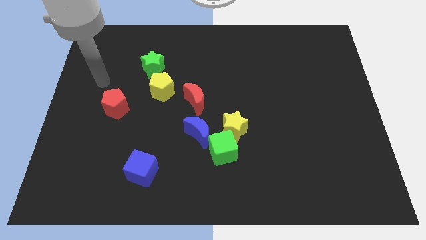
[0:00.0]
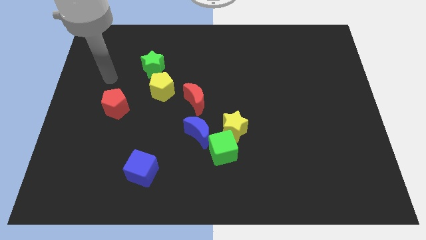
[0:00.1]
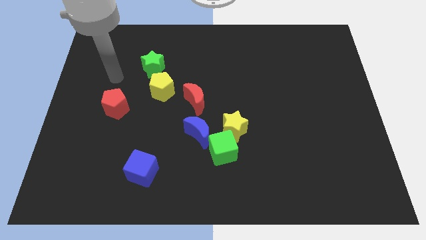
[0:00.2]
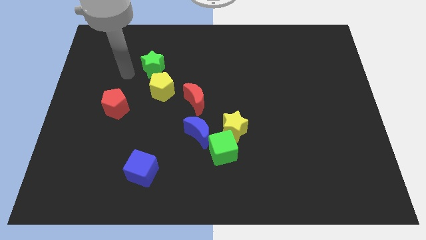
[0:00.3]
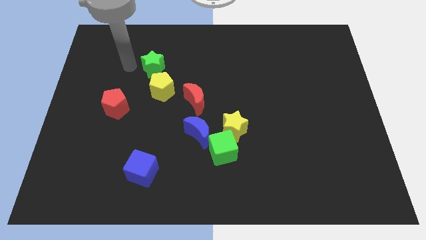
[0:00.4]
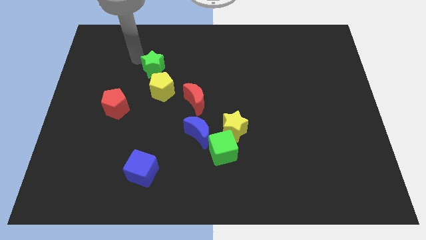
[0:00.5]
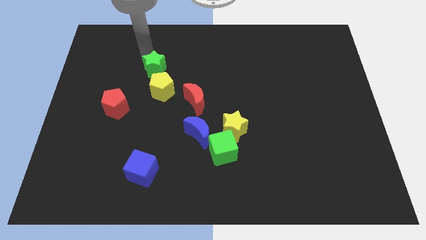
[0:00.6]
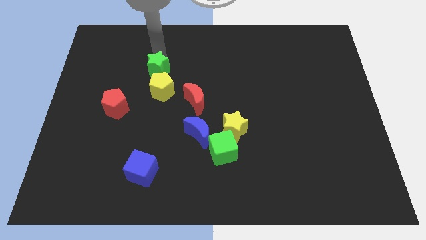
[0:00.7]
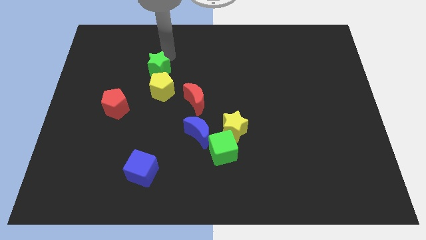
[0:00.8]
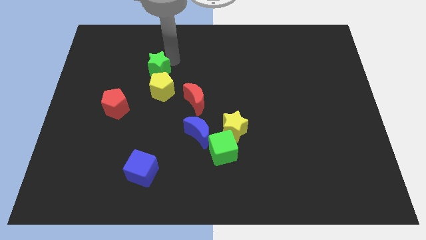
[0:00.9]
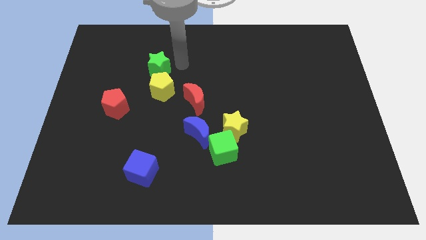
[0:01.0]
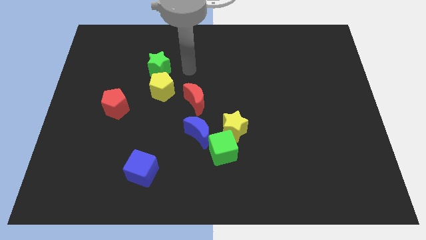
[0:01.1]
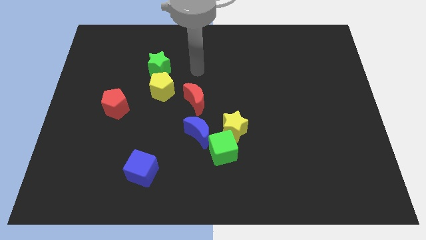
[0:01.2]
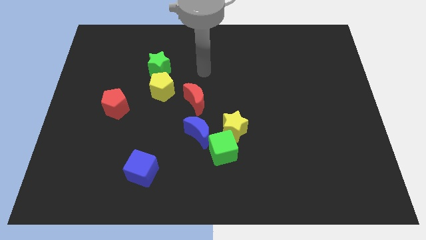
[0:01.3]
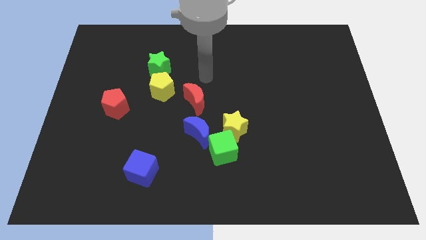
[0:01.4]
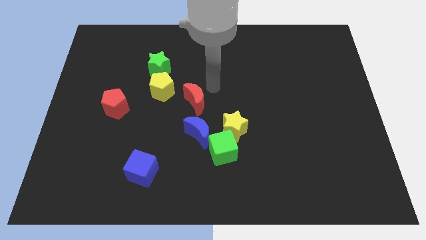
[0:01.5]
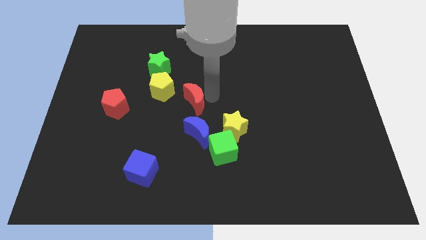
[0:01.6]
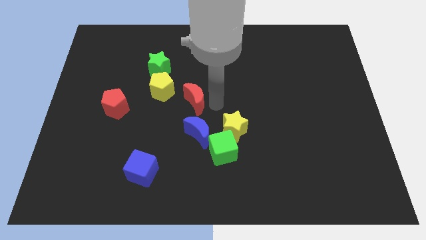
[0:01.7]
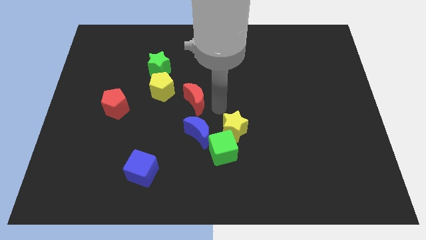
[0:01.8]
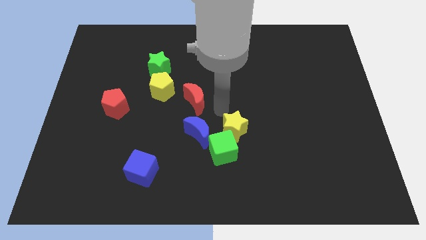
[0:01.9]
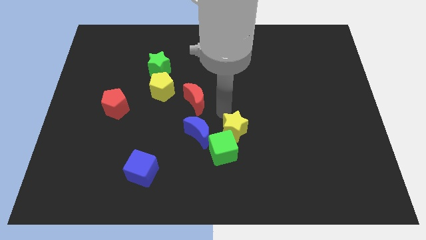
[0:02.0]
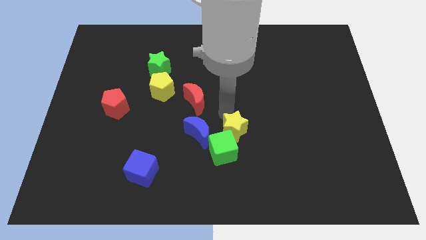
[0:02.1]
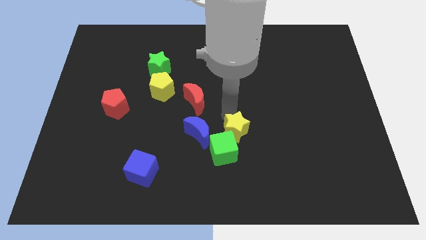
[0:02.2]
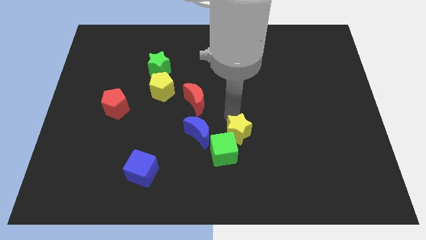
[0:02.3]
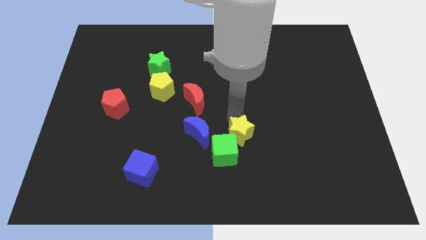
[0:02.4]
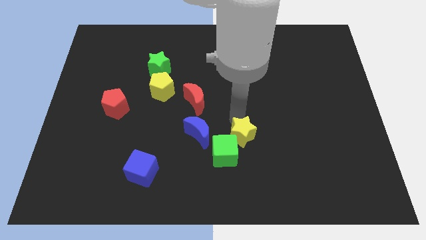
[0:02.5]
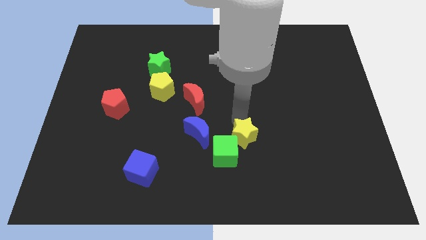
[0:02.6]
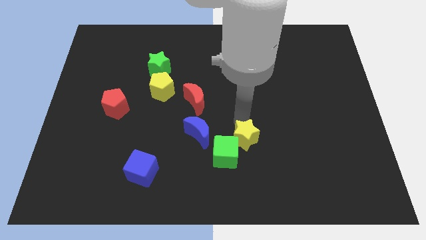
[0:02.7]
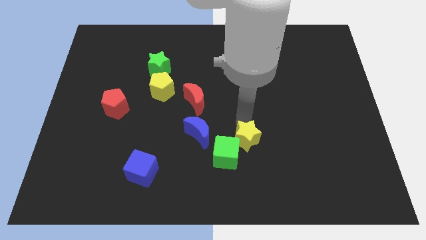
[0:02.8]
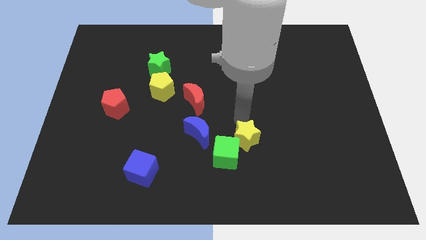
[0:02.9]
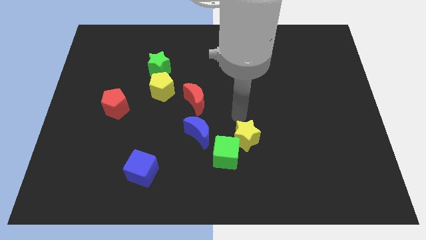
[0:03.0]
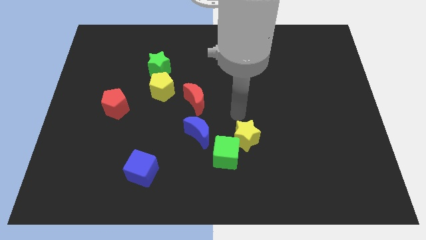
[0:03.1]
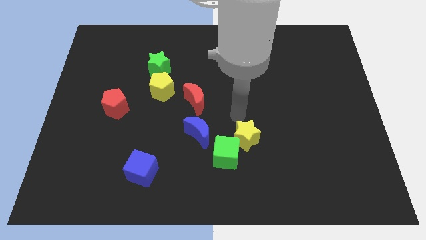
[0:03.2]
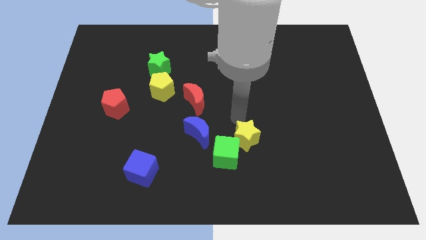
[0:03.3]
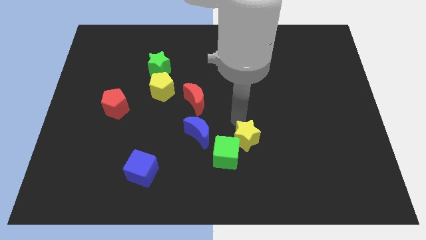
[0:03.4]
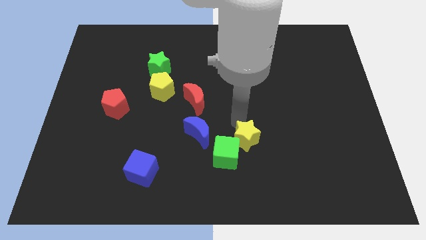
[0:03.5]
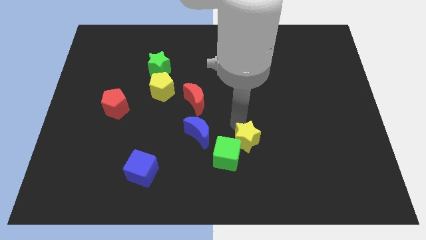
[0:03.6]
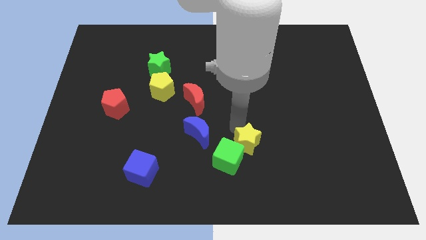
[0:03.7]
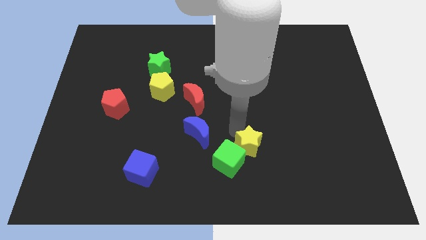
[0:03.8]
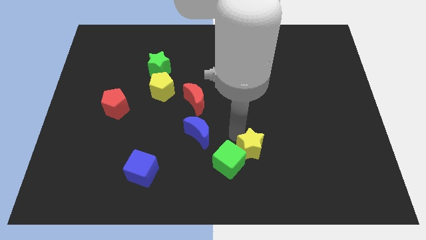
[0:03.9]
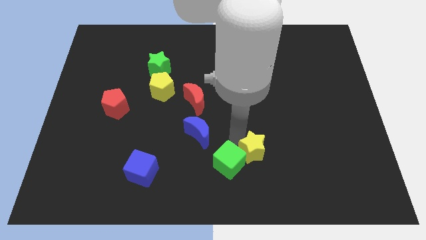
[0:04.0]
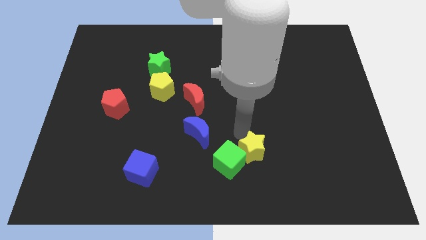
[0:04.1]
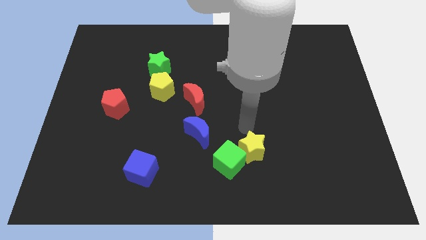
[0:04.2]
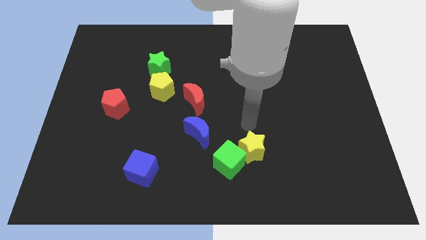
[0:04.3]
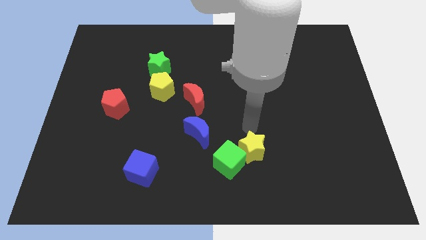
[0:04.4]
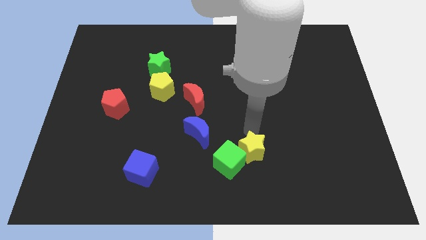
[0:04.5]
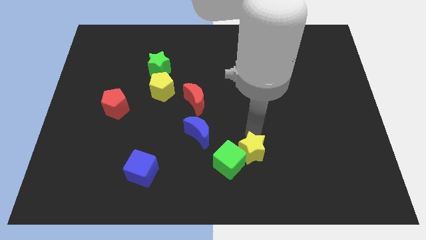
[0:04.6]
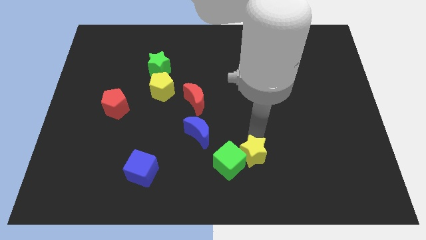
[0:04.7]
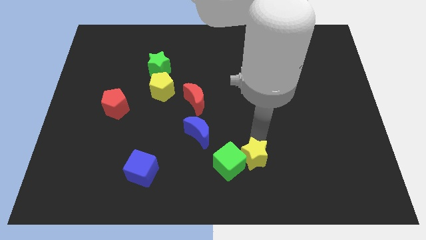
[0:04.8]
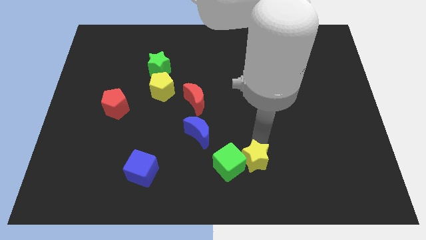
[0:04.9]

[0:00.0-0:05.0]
move the yellow star to the bottom right side of the green cube

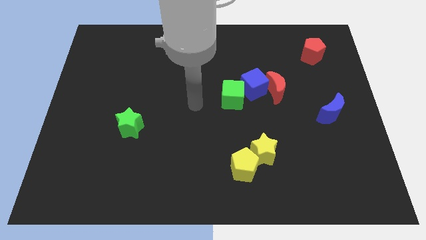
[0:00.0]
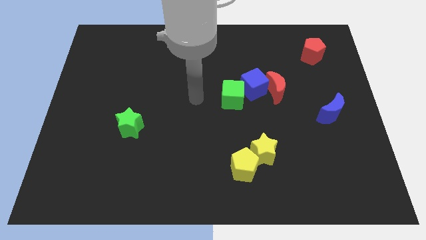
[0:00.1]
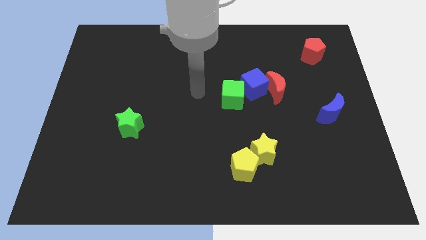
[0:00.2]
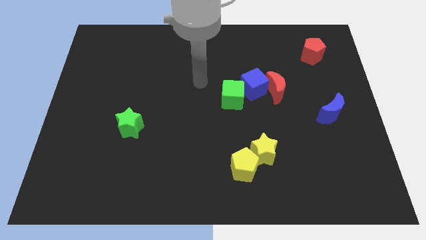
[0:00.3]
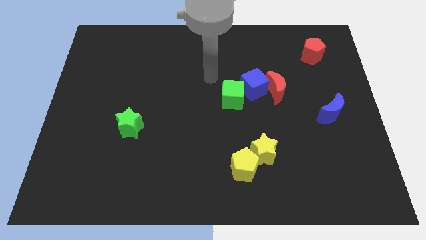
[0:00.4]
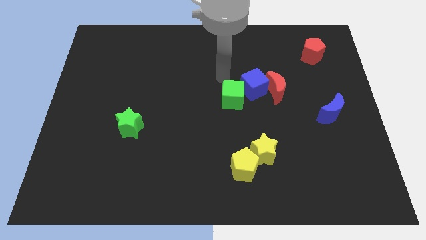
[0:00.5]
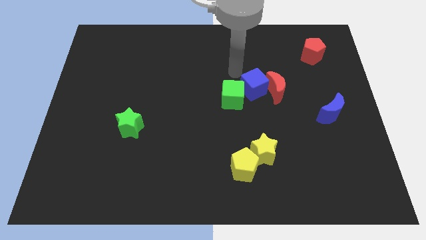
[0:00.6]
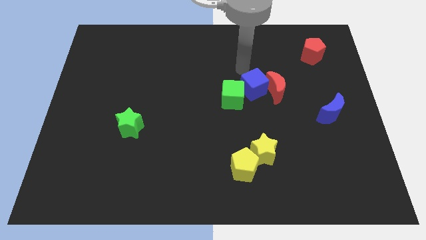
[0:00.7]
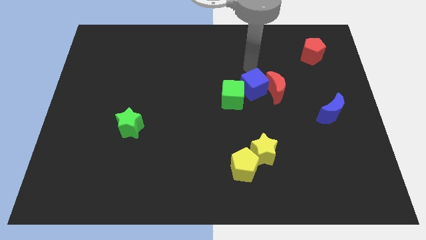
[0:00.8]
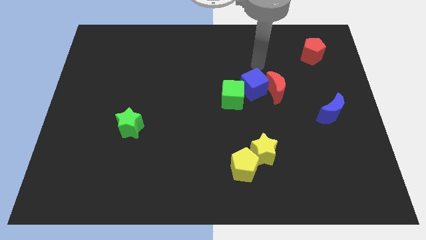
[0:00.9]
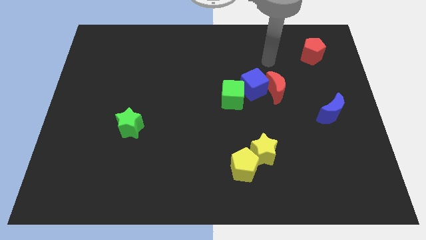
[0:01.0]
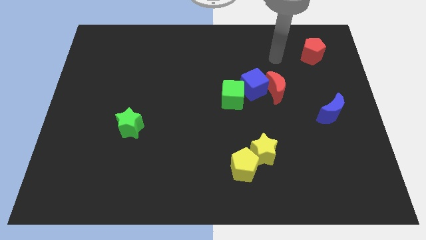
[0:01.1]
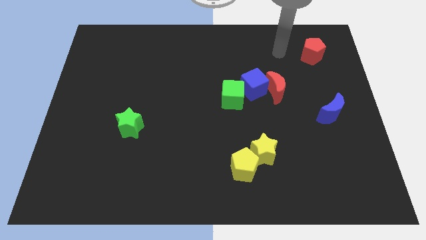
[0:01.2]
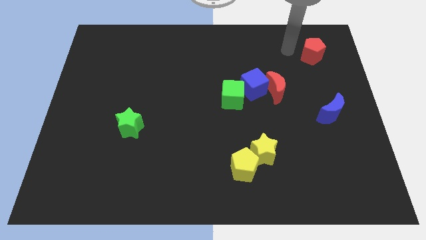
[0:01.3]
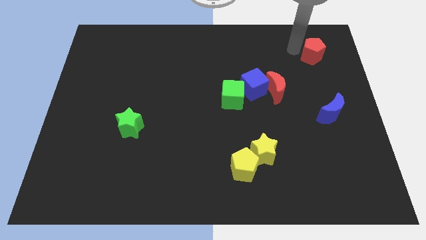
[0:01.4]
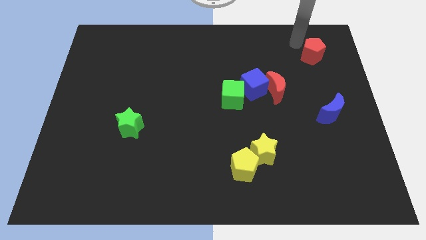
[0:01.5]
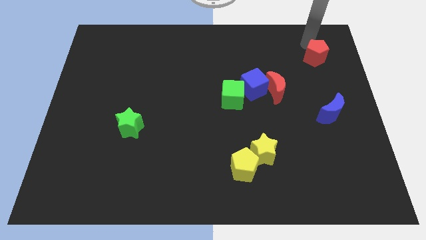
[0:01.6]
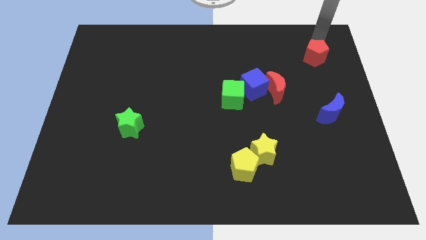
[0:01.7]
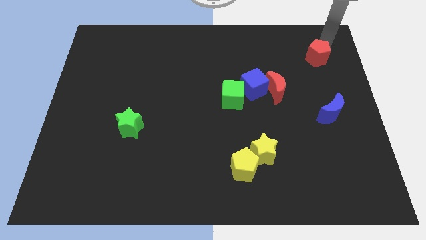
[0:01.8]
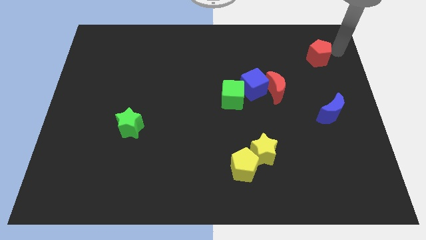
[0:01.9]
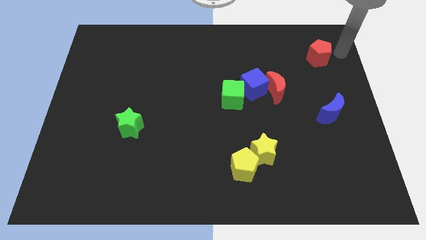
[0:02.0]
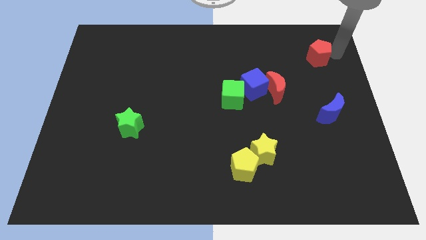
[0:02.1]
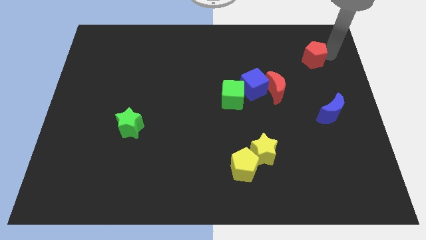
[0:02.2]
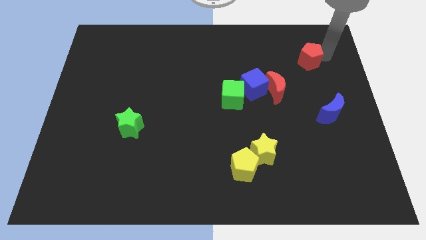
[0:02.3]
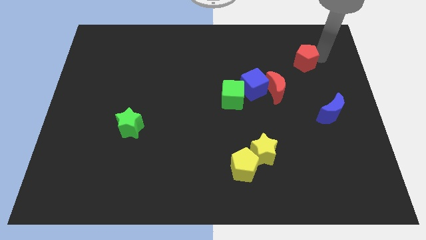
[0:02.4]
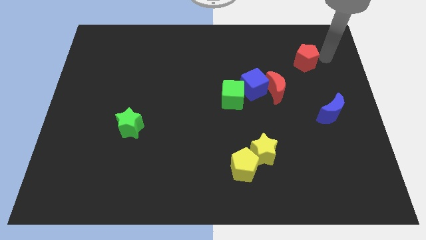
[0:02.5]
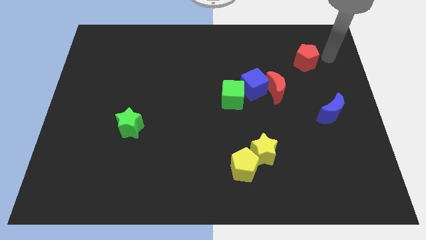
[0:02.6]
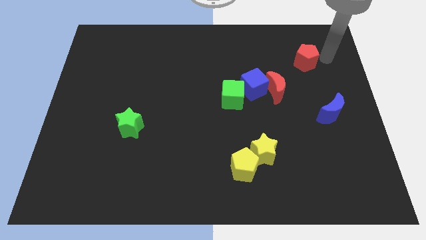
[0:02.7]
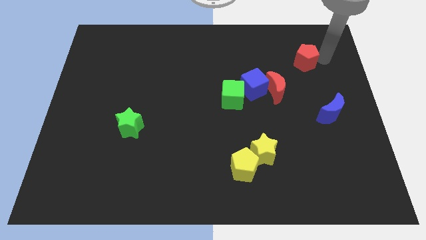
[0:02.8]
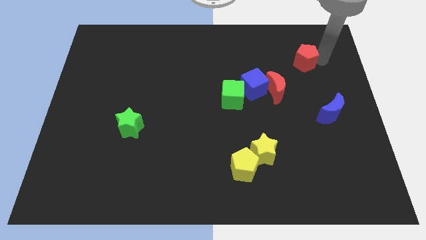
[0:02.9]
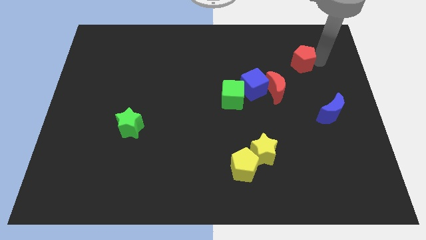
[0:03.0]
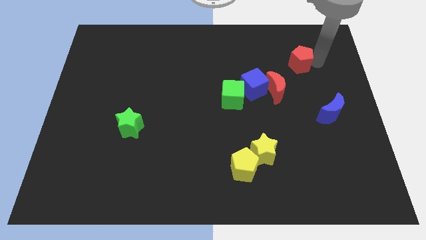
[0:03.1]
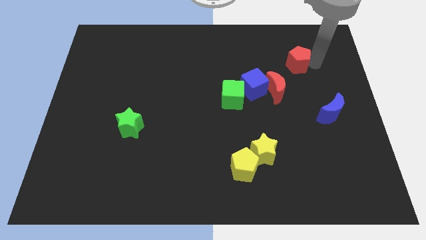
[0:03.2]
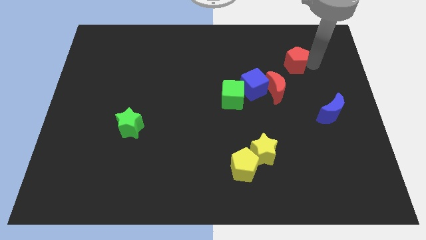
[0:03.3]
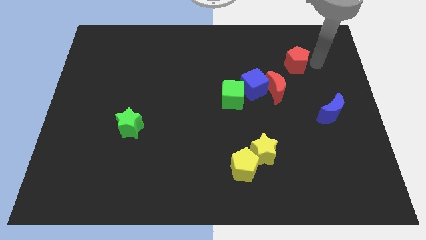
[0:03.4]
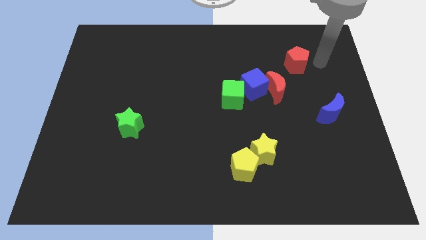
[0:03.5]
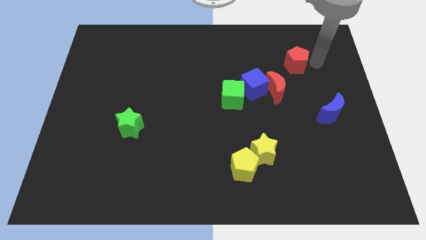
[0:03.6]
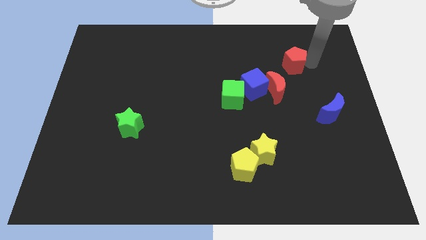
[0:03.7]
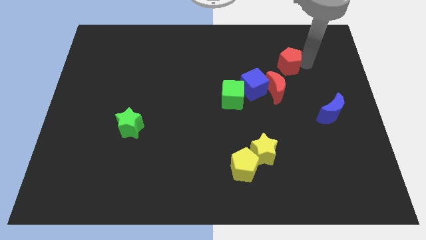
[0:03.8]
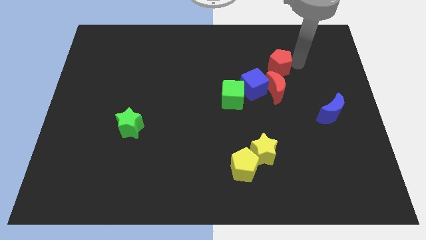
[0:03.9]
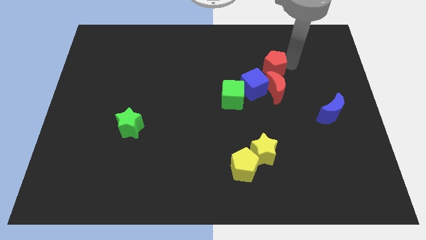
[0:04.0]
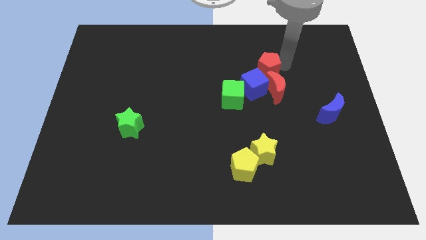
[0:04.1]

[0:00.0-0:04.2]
move the red pentagon to the top left of the red moon
